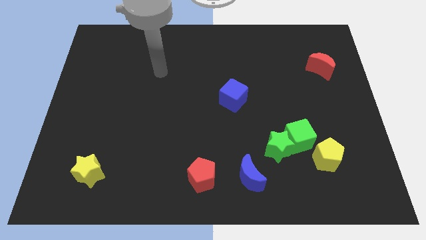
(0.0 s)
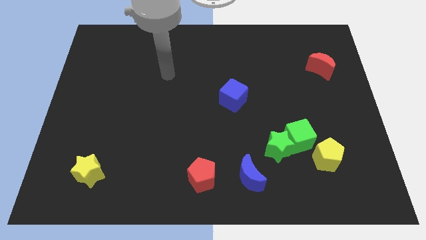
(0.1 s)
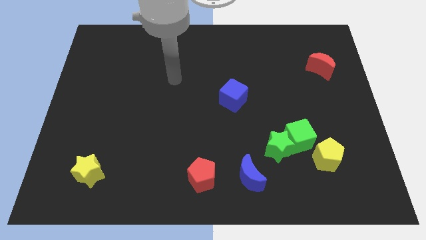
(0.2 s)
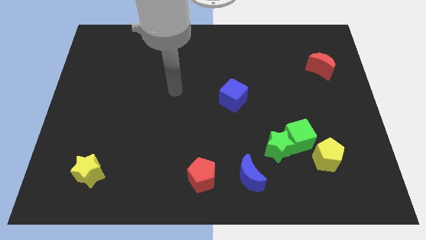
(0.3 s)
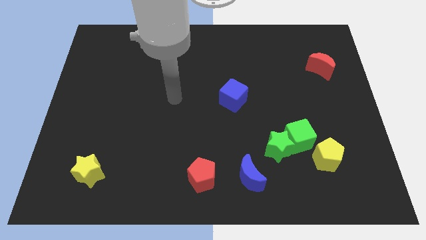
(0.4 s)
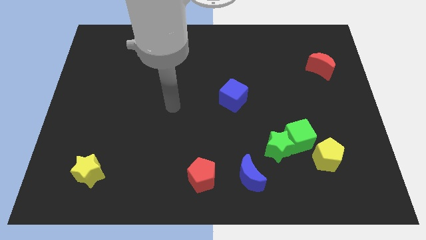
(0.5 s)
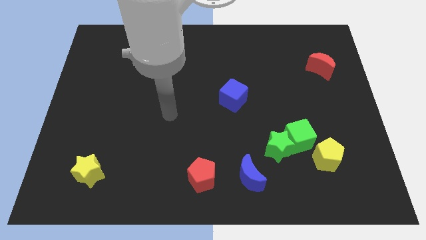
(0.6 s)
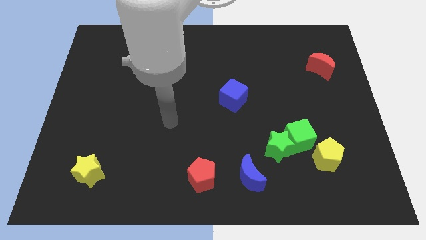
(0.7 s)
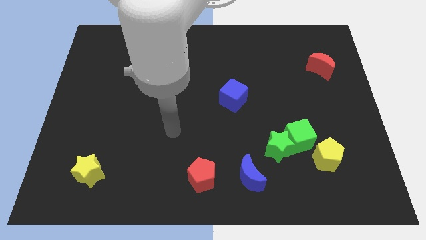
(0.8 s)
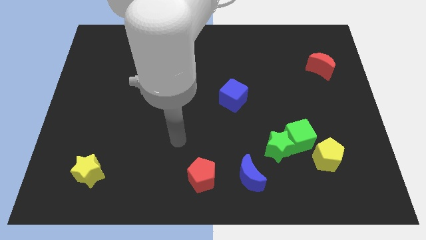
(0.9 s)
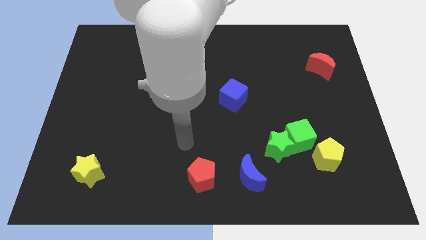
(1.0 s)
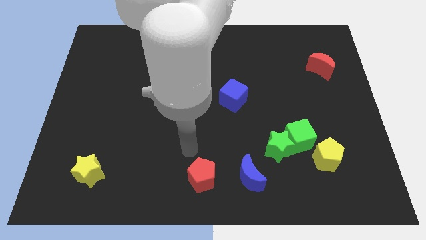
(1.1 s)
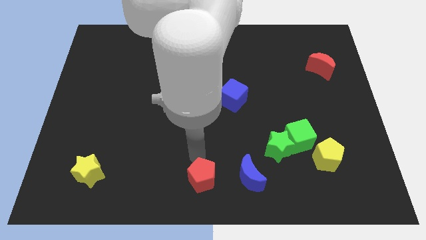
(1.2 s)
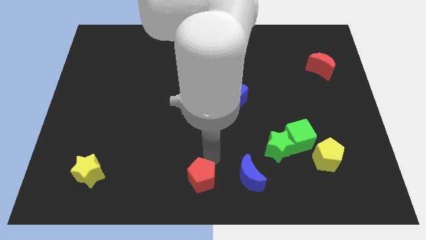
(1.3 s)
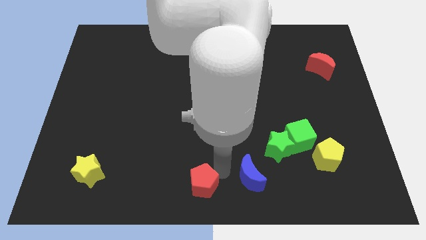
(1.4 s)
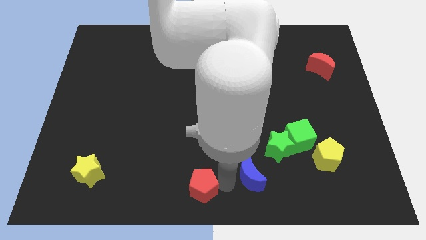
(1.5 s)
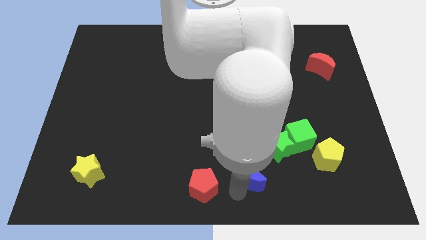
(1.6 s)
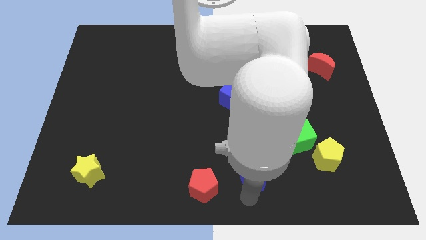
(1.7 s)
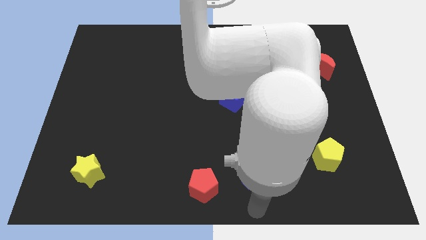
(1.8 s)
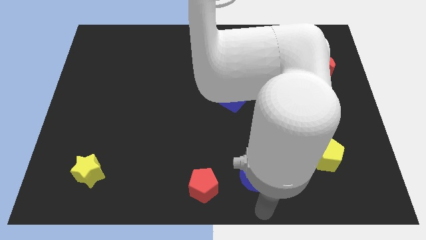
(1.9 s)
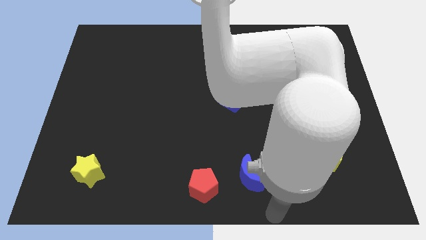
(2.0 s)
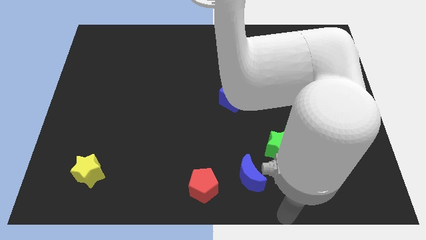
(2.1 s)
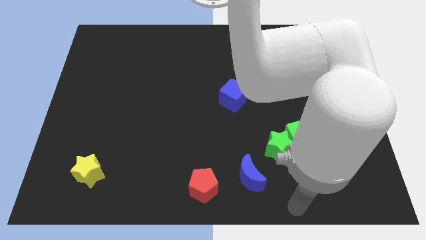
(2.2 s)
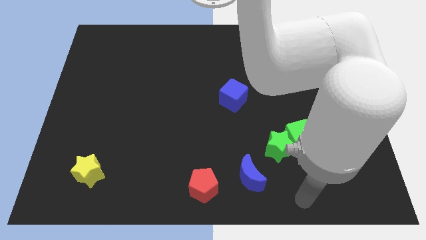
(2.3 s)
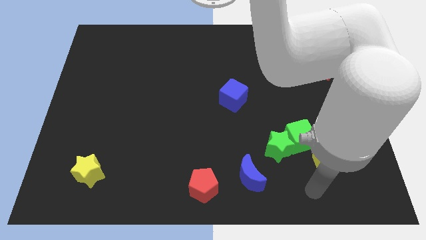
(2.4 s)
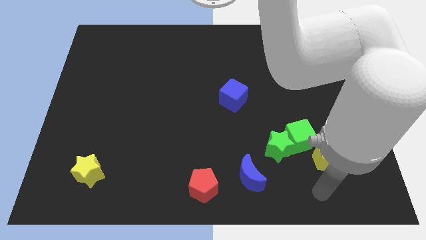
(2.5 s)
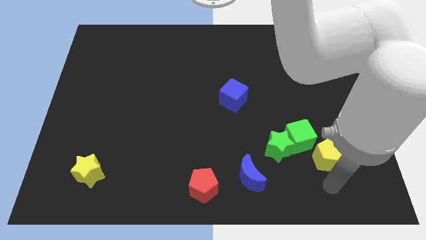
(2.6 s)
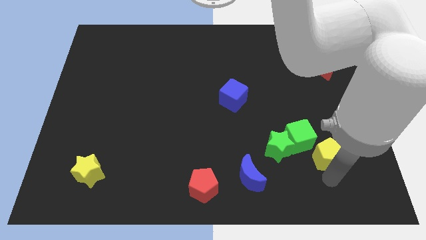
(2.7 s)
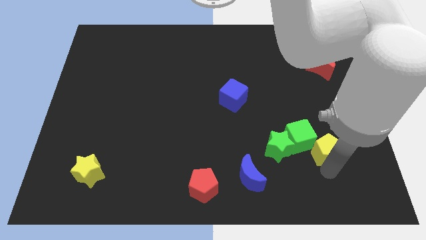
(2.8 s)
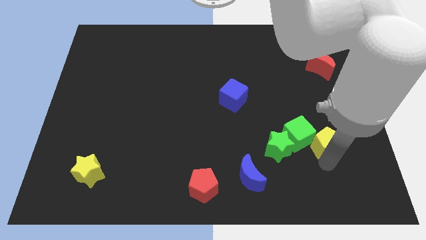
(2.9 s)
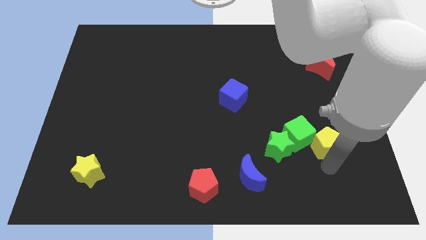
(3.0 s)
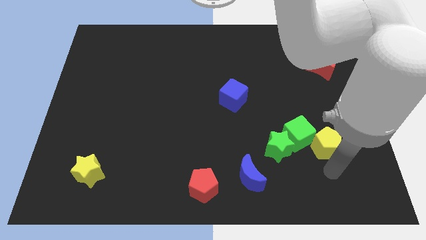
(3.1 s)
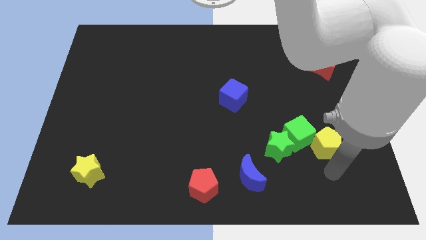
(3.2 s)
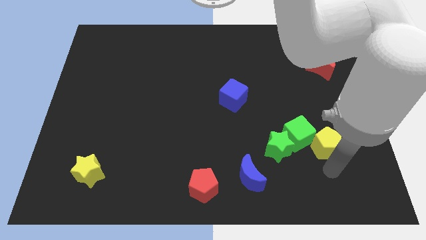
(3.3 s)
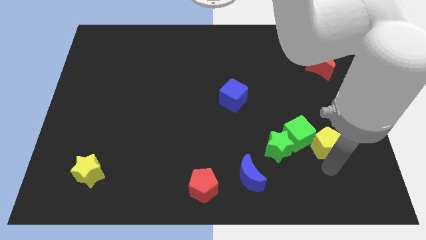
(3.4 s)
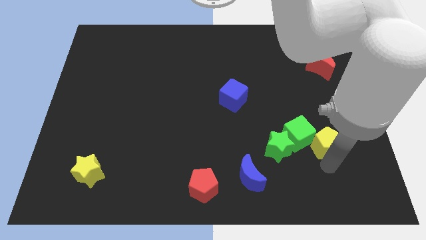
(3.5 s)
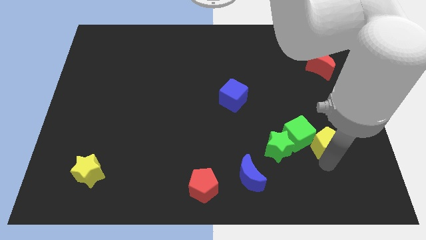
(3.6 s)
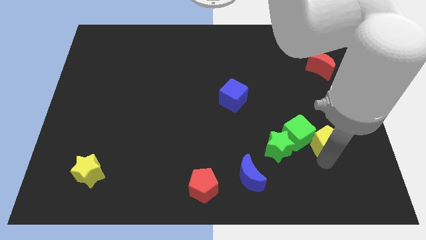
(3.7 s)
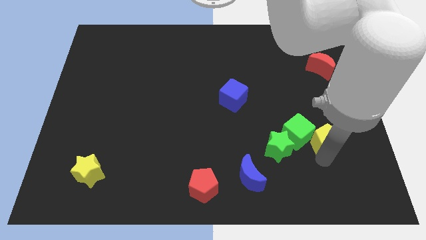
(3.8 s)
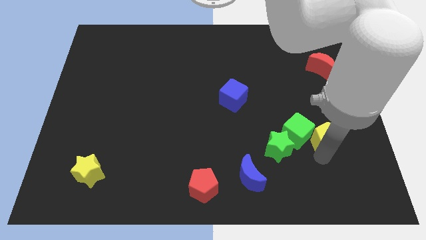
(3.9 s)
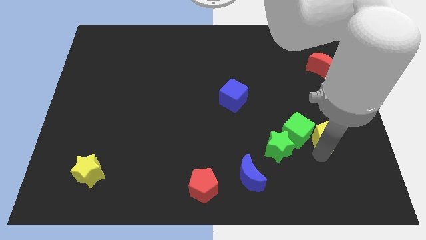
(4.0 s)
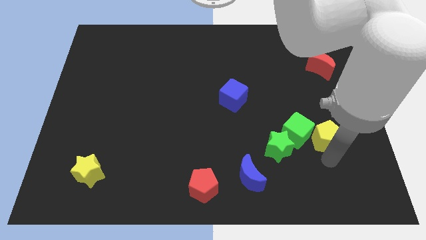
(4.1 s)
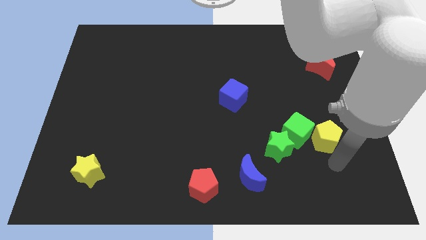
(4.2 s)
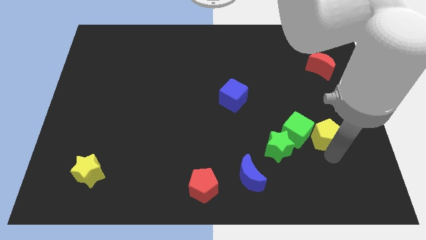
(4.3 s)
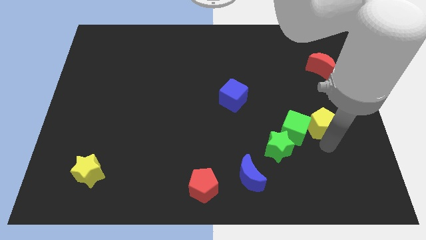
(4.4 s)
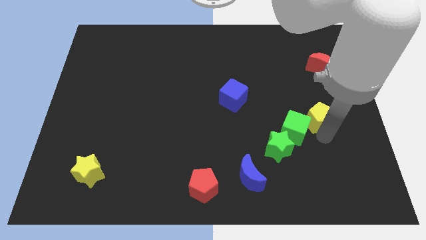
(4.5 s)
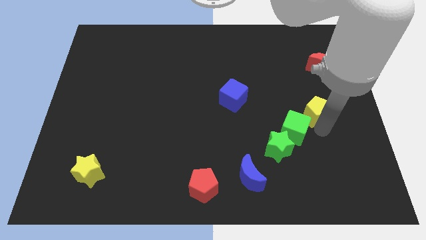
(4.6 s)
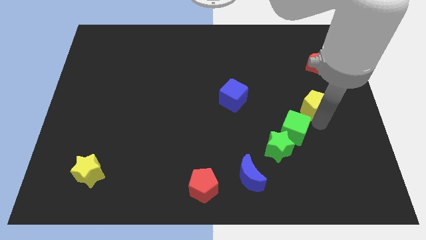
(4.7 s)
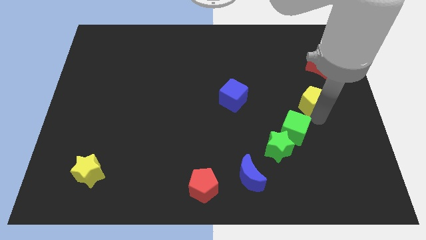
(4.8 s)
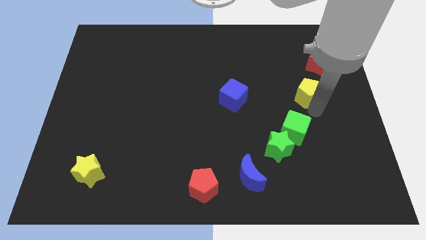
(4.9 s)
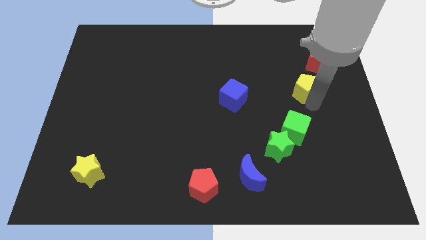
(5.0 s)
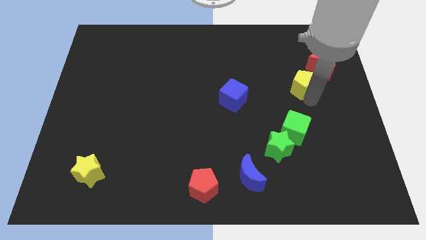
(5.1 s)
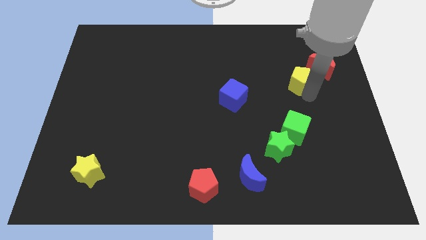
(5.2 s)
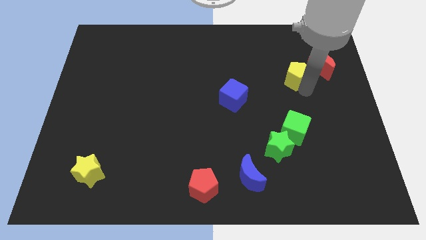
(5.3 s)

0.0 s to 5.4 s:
put the yellow pentagon just left of the red moon

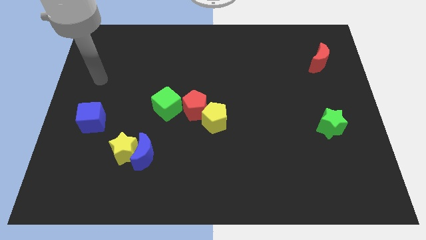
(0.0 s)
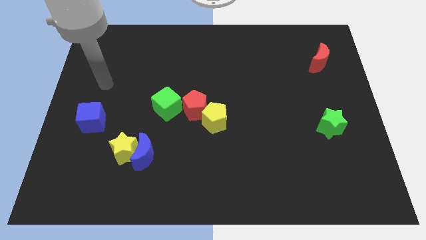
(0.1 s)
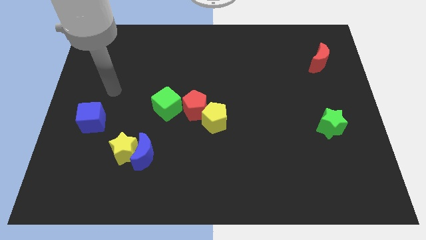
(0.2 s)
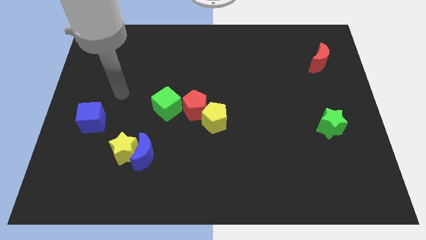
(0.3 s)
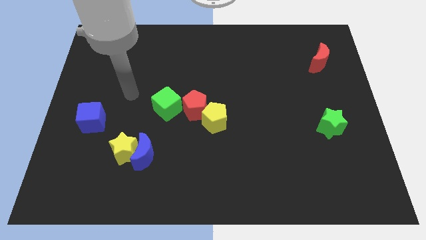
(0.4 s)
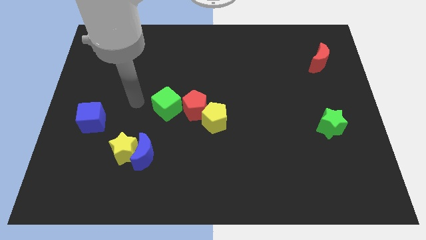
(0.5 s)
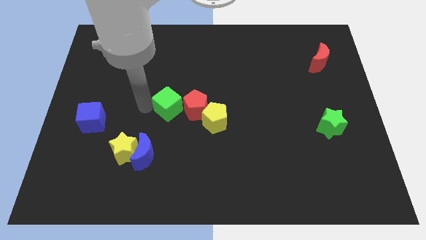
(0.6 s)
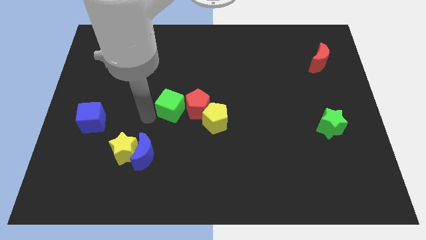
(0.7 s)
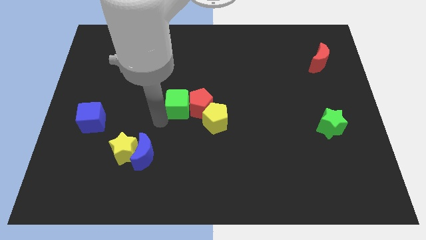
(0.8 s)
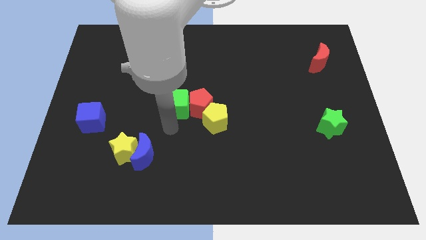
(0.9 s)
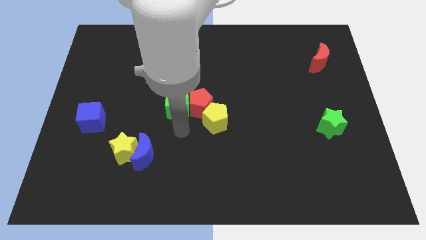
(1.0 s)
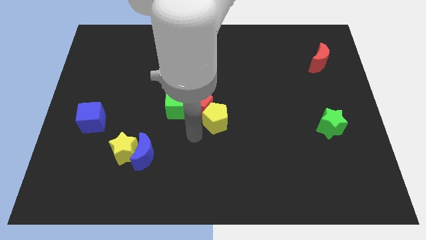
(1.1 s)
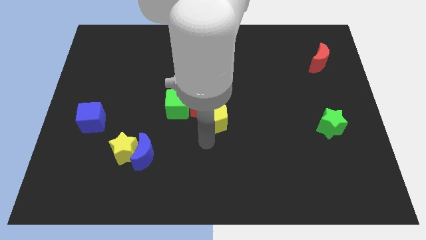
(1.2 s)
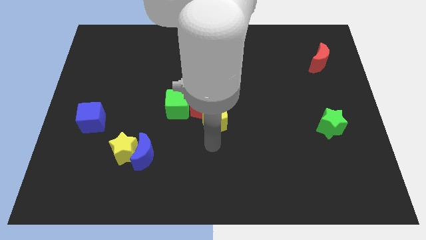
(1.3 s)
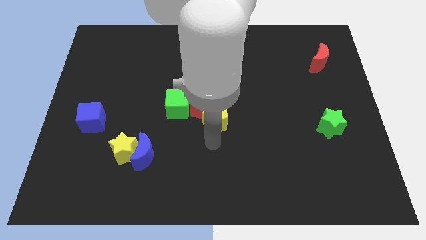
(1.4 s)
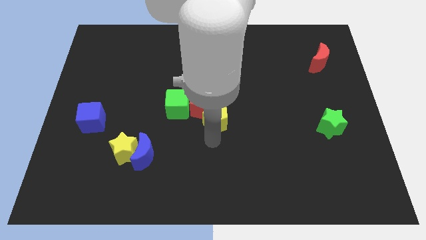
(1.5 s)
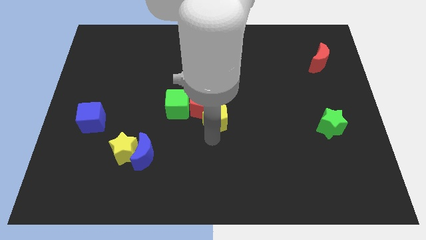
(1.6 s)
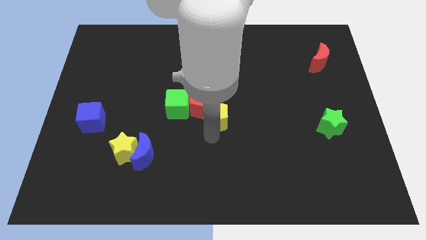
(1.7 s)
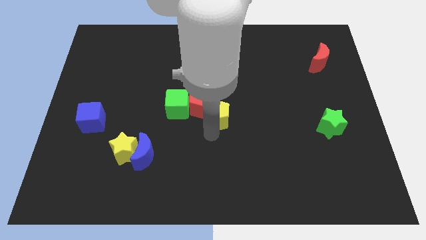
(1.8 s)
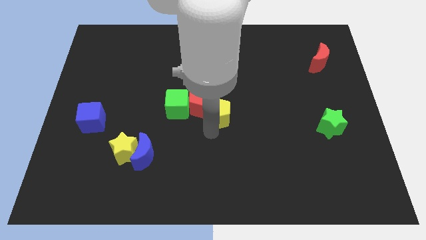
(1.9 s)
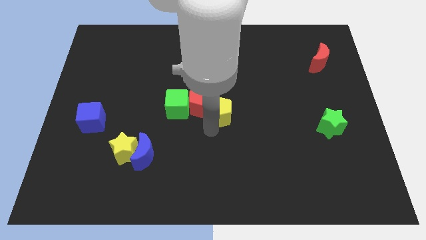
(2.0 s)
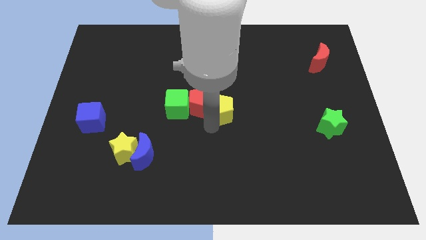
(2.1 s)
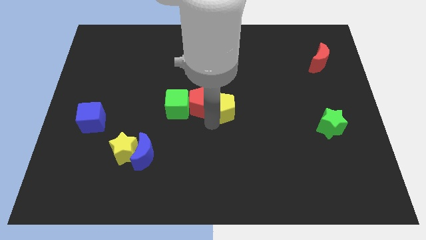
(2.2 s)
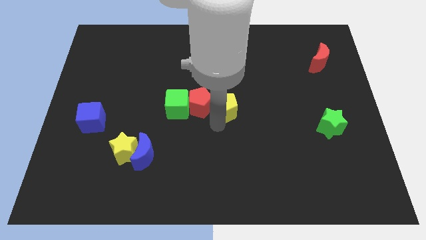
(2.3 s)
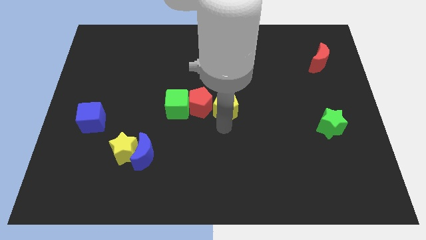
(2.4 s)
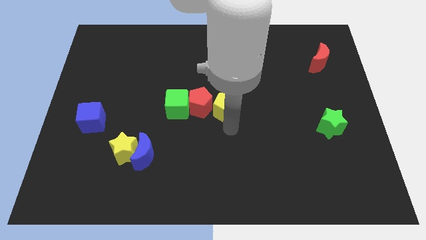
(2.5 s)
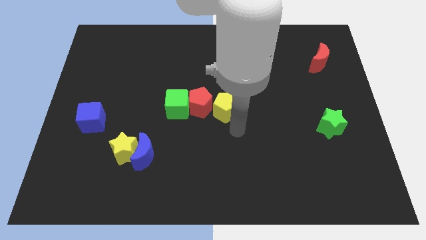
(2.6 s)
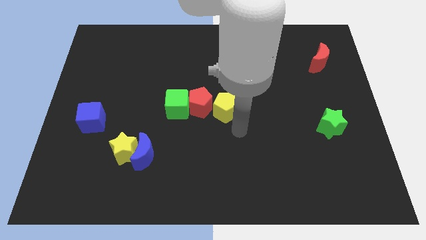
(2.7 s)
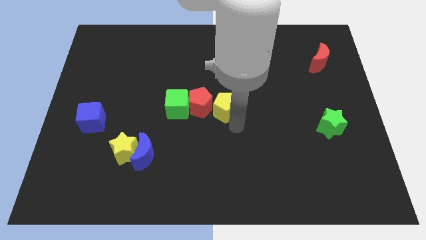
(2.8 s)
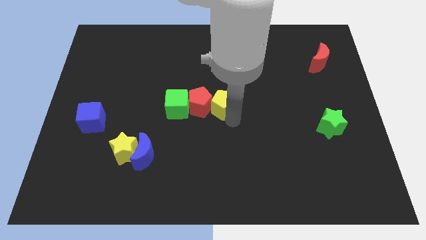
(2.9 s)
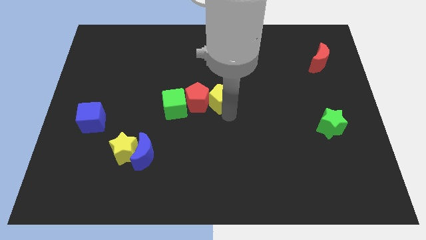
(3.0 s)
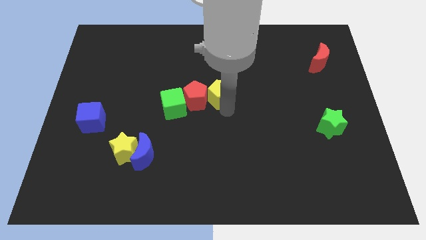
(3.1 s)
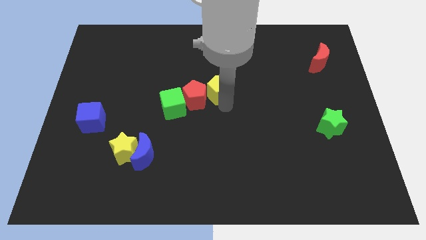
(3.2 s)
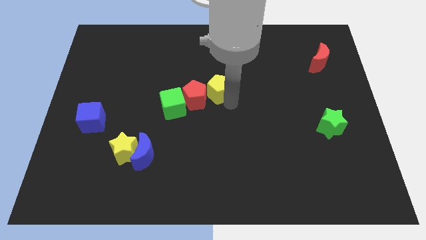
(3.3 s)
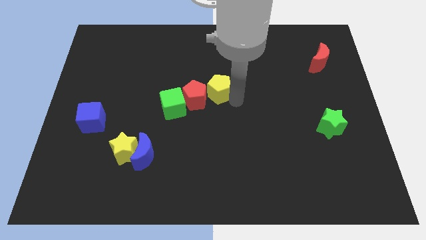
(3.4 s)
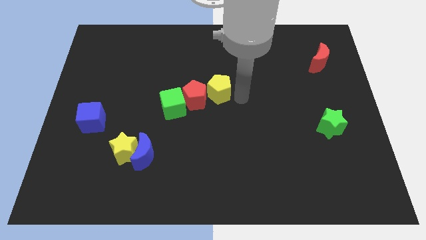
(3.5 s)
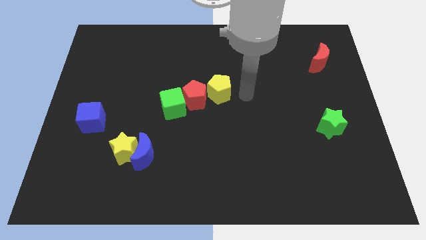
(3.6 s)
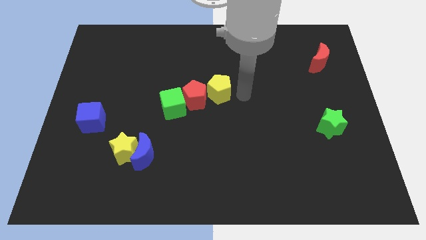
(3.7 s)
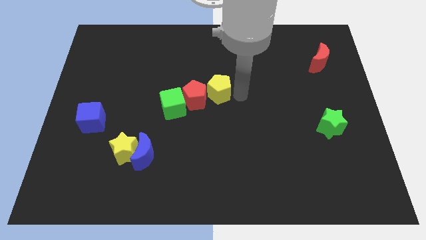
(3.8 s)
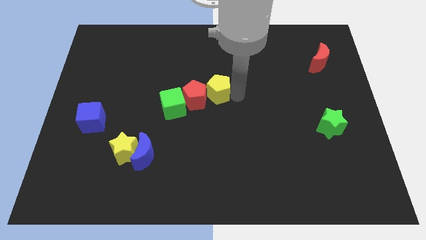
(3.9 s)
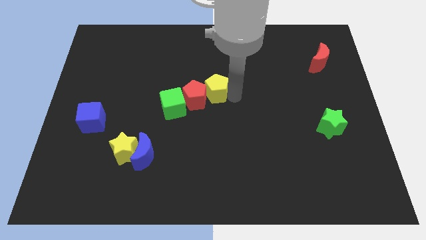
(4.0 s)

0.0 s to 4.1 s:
slide the yellow pentagon diagonally up and to the right of the green cube
